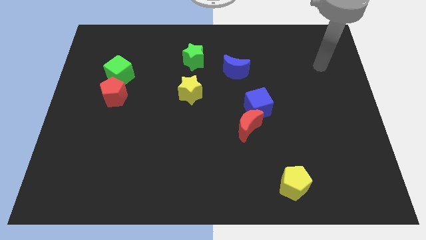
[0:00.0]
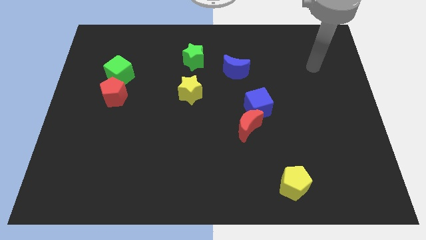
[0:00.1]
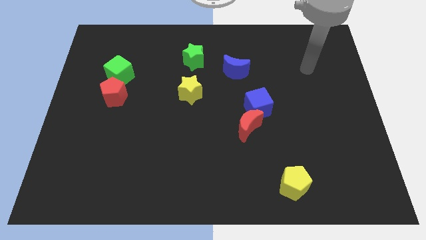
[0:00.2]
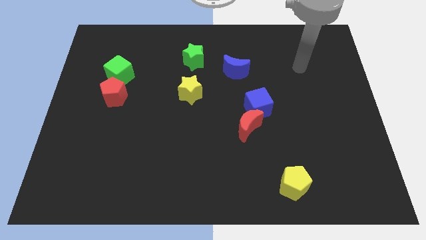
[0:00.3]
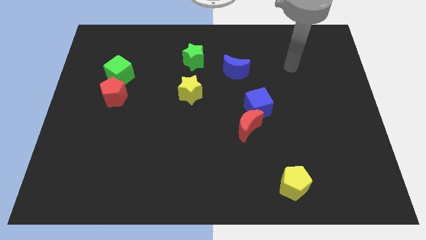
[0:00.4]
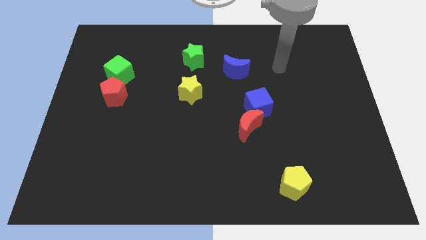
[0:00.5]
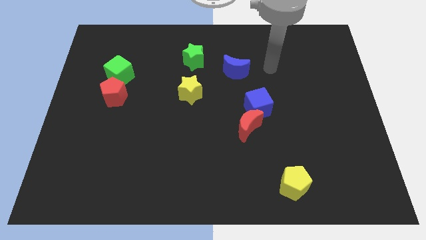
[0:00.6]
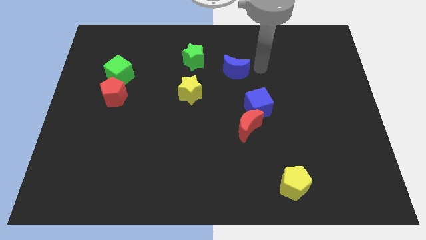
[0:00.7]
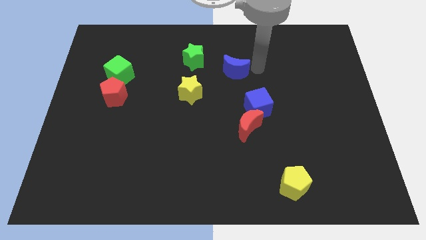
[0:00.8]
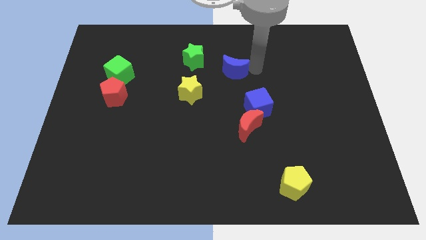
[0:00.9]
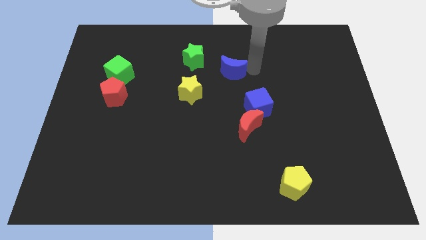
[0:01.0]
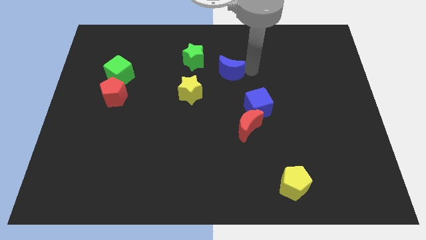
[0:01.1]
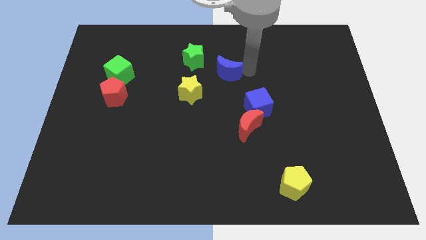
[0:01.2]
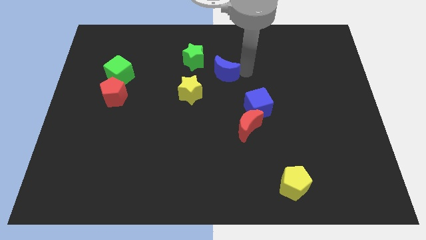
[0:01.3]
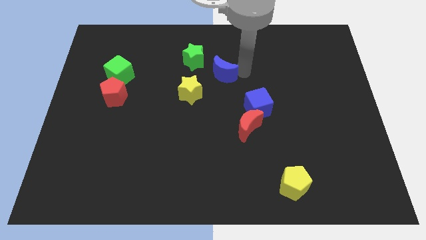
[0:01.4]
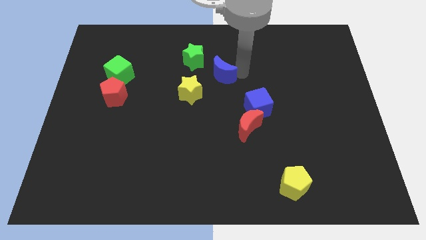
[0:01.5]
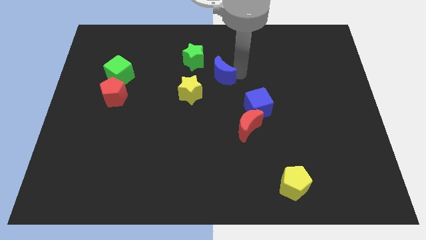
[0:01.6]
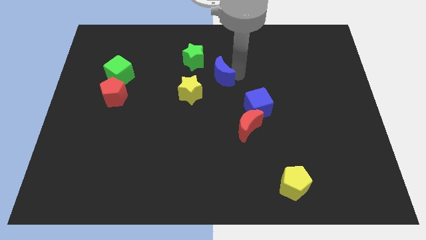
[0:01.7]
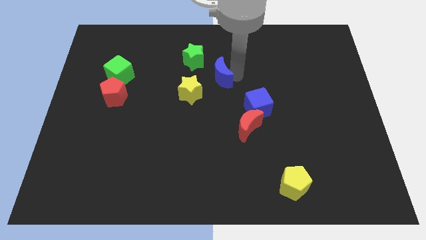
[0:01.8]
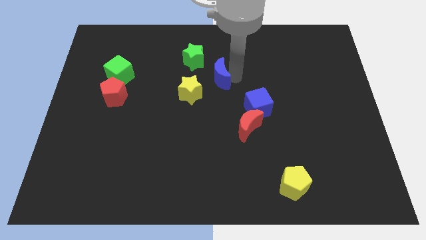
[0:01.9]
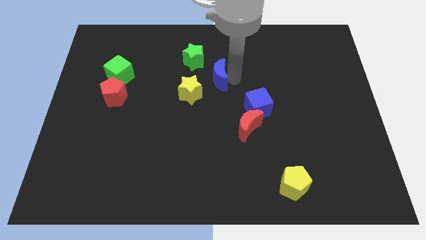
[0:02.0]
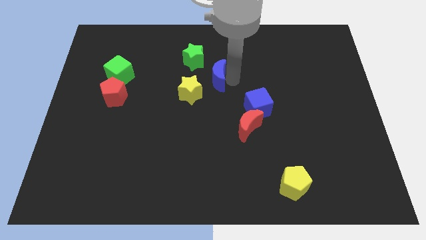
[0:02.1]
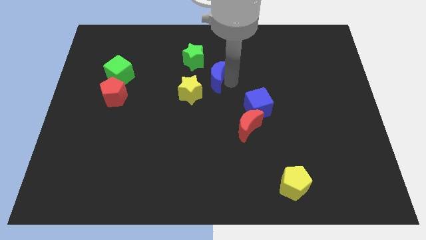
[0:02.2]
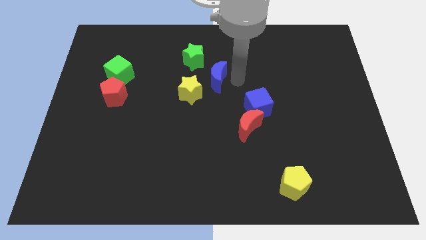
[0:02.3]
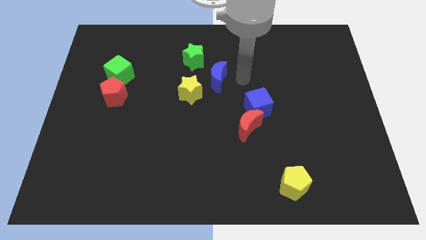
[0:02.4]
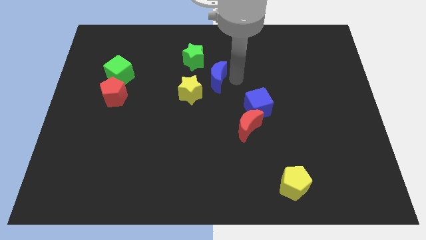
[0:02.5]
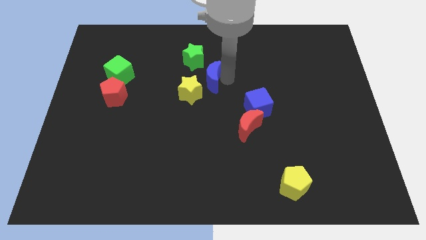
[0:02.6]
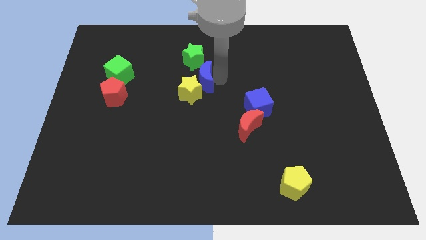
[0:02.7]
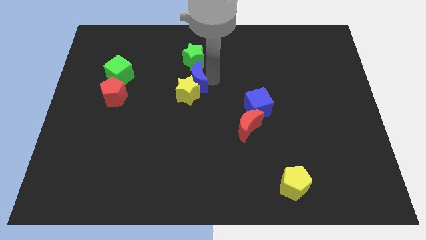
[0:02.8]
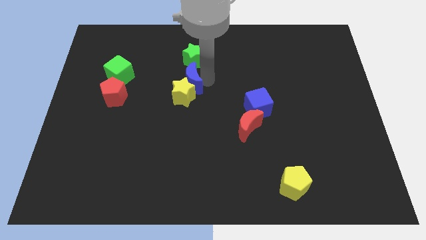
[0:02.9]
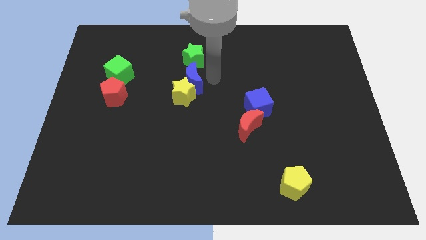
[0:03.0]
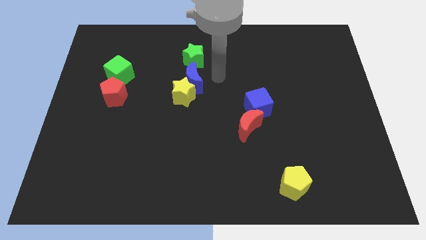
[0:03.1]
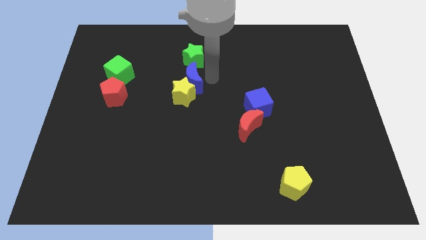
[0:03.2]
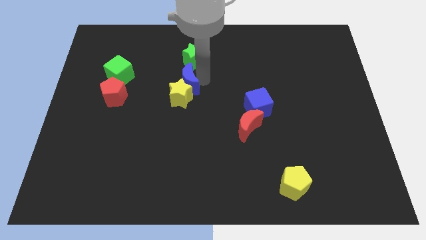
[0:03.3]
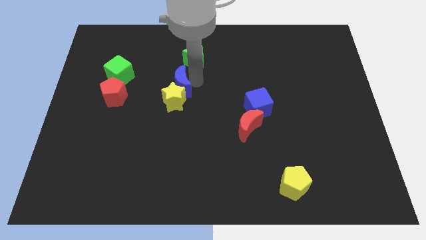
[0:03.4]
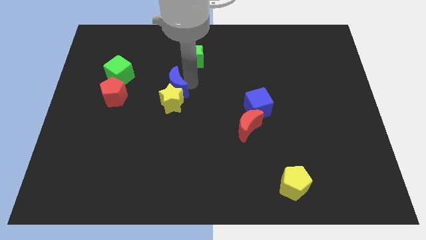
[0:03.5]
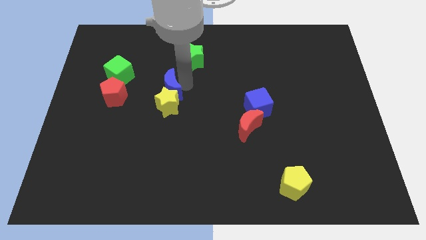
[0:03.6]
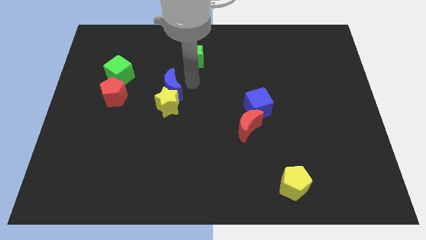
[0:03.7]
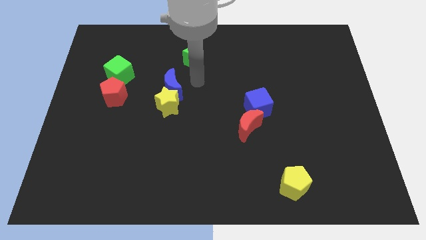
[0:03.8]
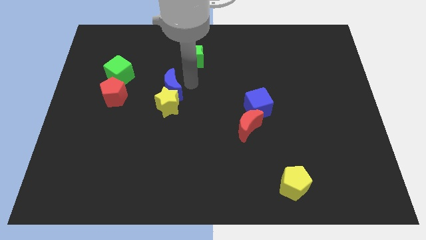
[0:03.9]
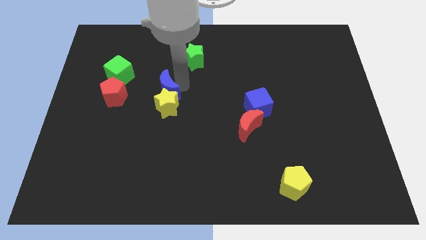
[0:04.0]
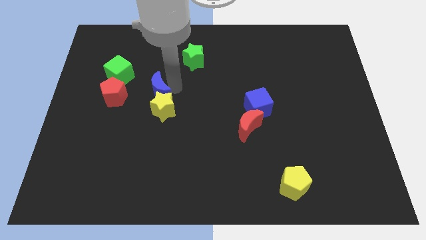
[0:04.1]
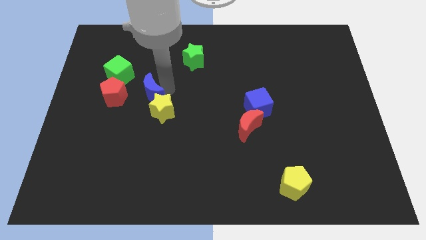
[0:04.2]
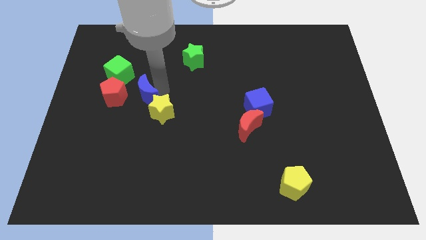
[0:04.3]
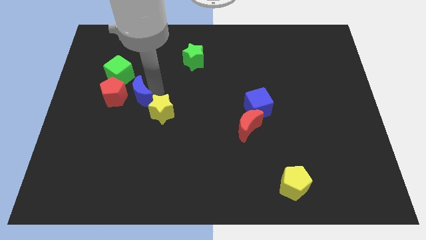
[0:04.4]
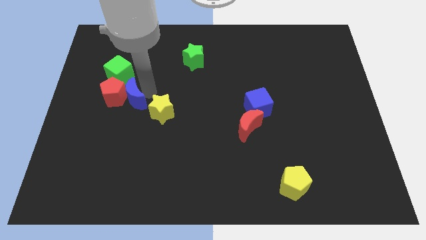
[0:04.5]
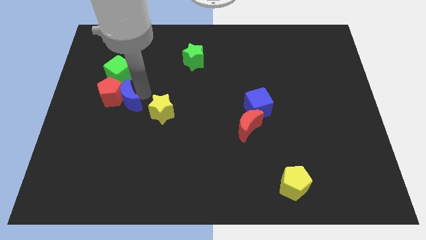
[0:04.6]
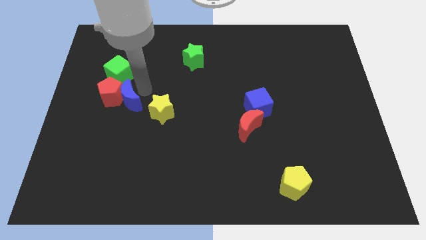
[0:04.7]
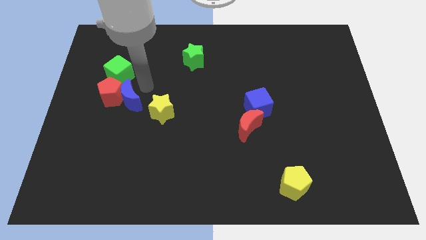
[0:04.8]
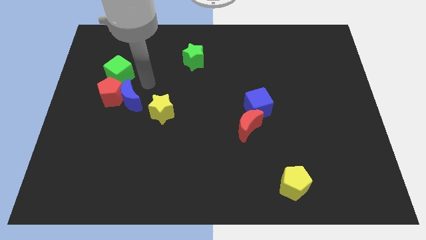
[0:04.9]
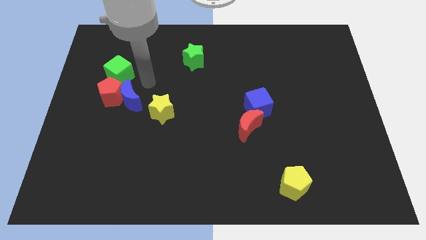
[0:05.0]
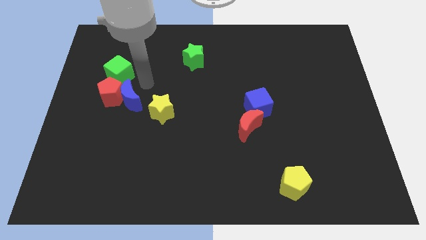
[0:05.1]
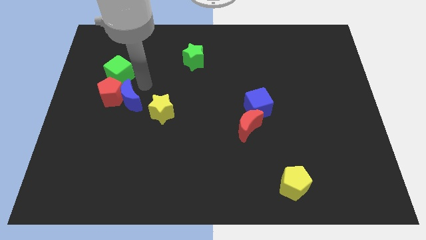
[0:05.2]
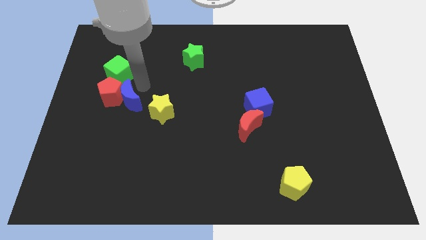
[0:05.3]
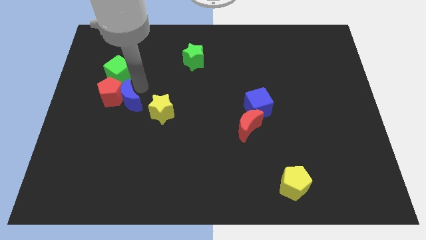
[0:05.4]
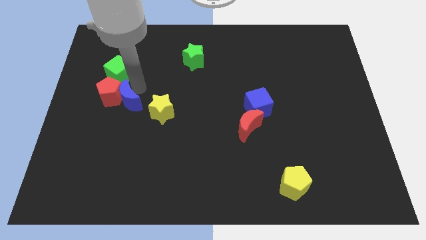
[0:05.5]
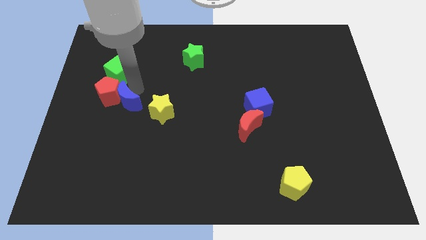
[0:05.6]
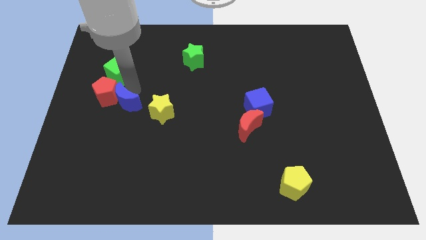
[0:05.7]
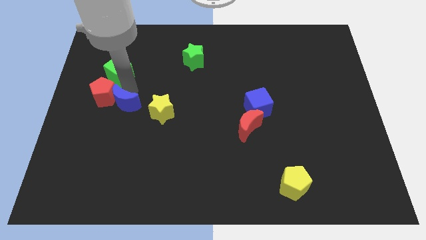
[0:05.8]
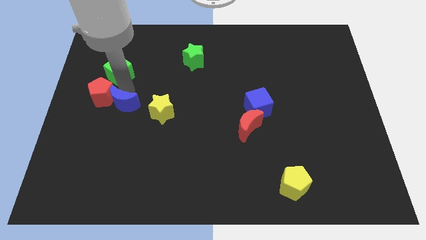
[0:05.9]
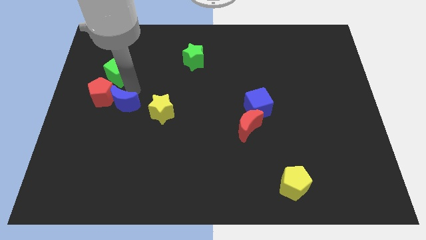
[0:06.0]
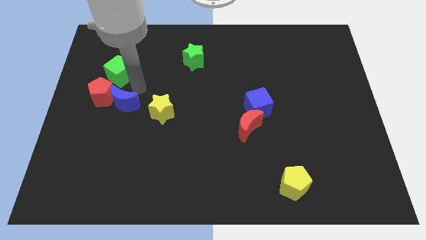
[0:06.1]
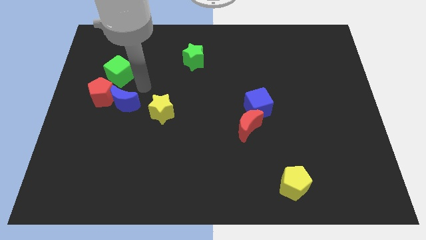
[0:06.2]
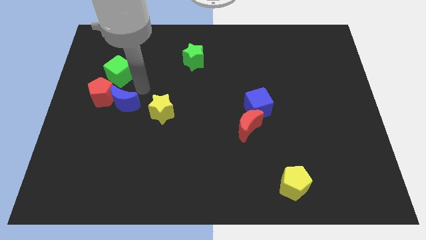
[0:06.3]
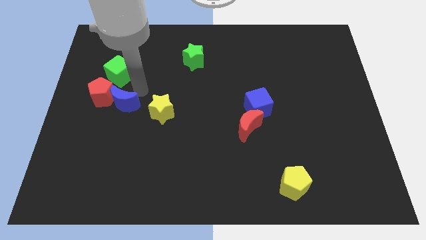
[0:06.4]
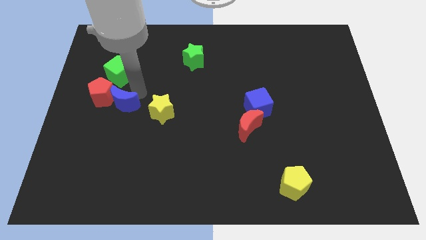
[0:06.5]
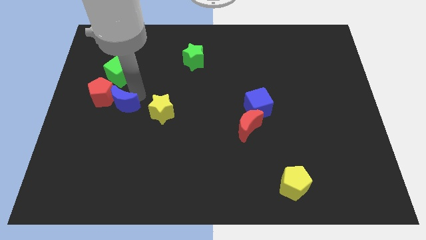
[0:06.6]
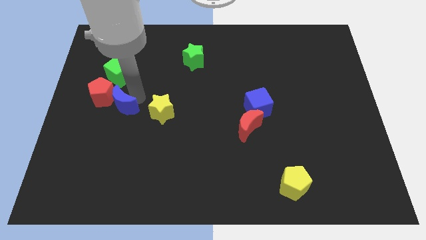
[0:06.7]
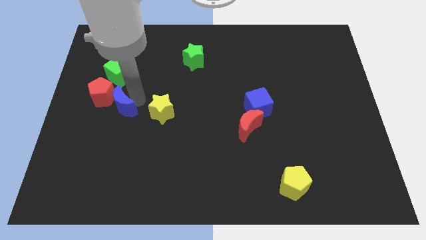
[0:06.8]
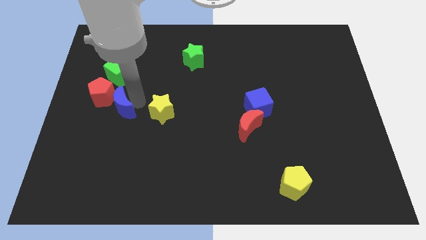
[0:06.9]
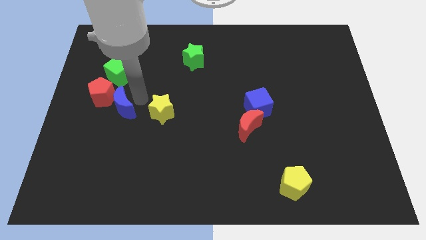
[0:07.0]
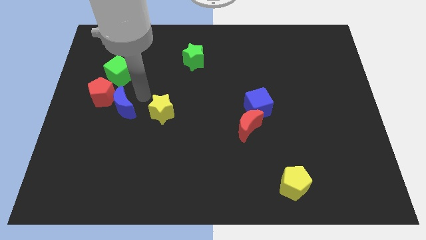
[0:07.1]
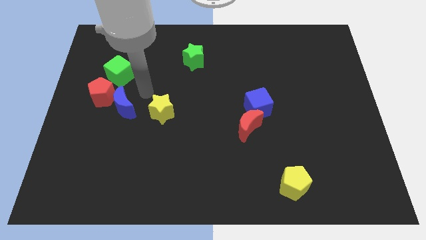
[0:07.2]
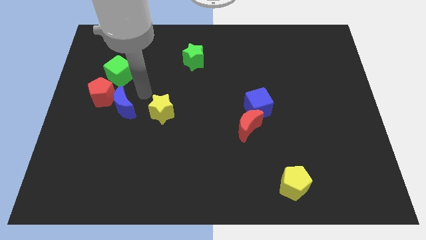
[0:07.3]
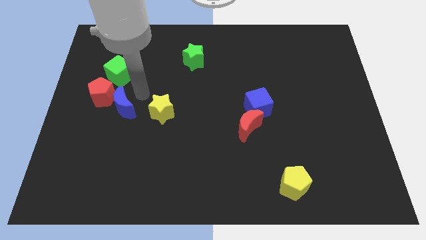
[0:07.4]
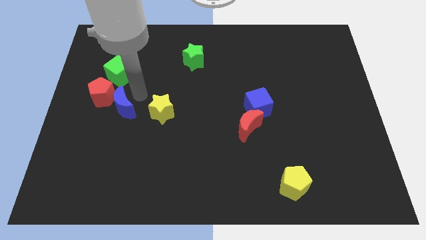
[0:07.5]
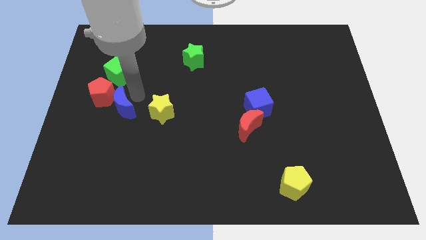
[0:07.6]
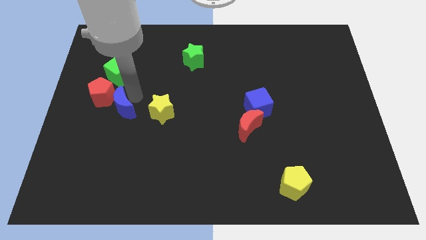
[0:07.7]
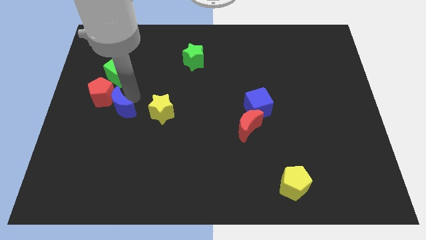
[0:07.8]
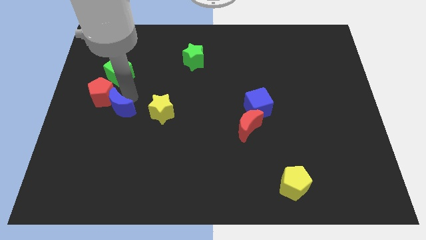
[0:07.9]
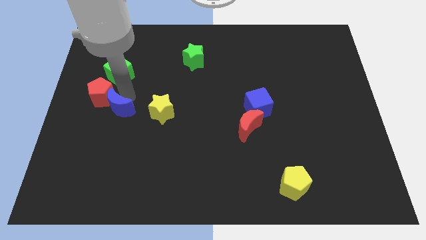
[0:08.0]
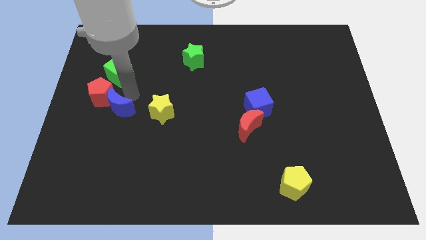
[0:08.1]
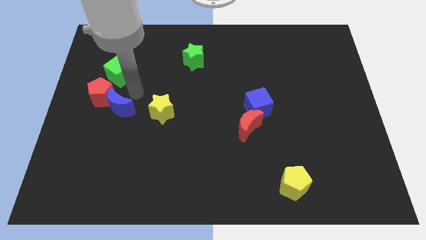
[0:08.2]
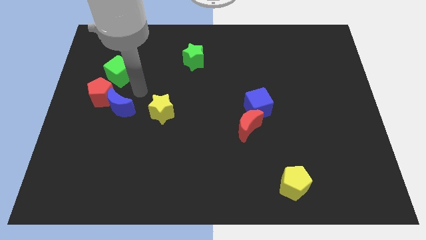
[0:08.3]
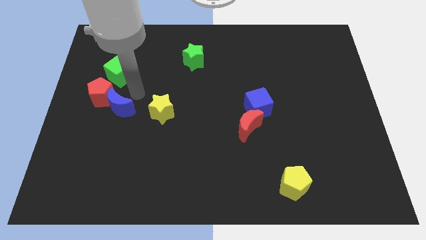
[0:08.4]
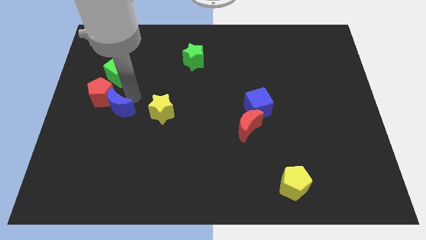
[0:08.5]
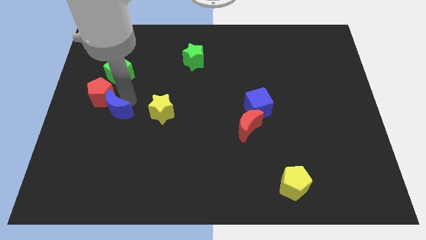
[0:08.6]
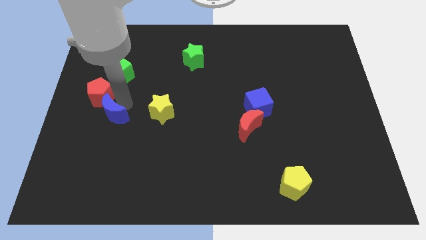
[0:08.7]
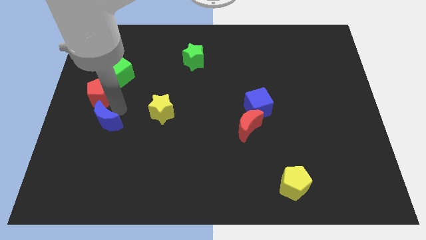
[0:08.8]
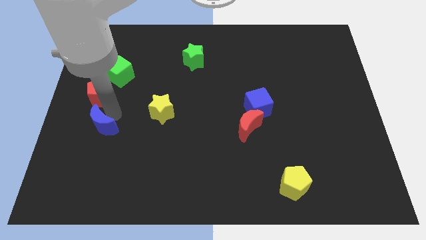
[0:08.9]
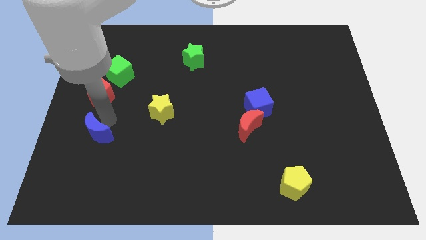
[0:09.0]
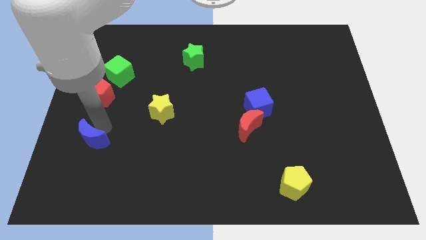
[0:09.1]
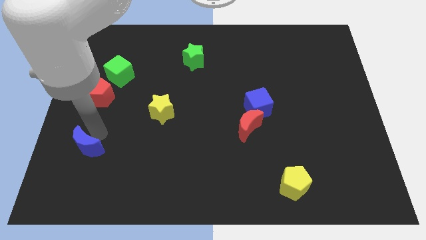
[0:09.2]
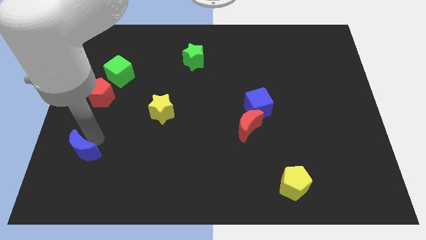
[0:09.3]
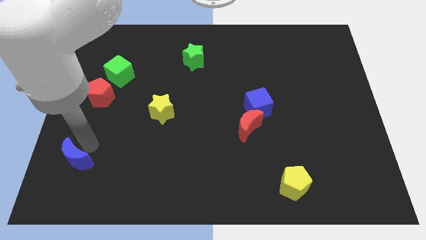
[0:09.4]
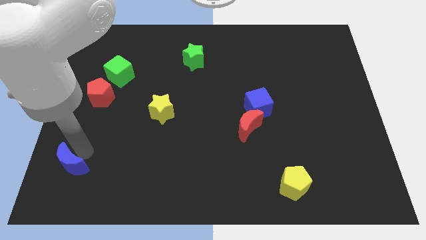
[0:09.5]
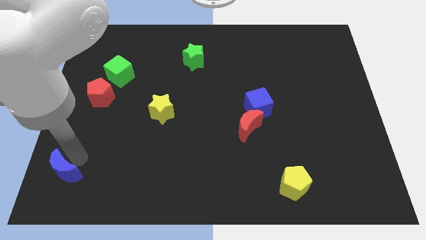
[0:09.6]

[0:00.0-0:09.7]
push the blue moon to the bottom left of the board
